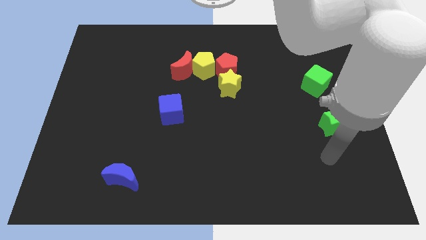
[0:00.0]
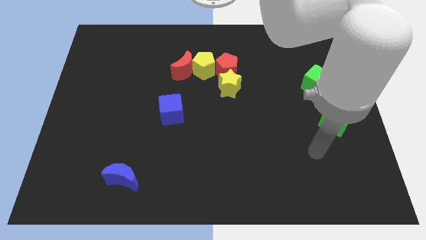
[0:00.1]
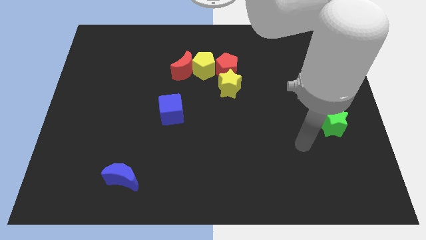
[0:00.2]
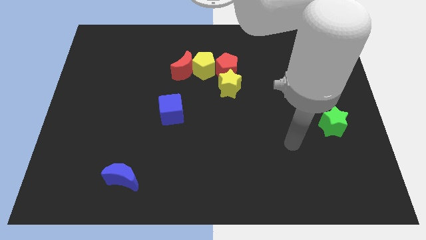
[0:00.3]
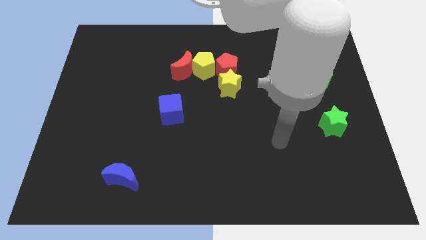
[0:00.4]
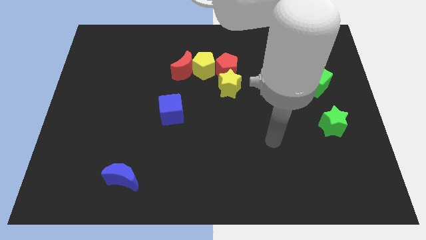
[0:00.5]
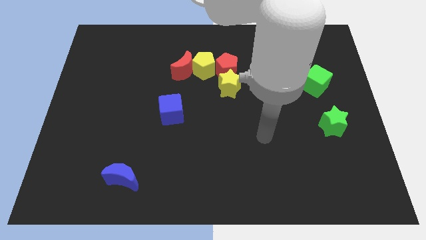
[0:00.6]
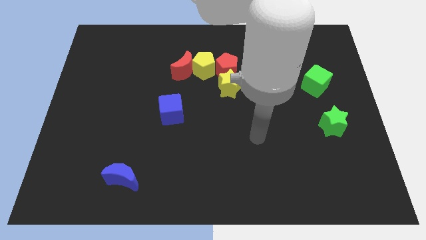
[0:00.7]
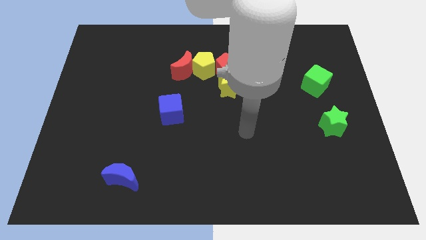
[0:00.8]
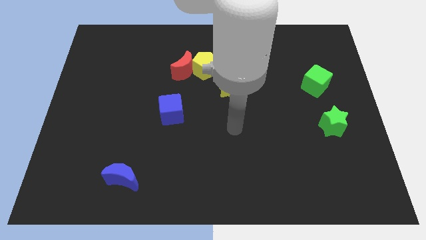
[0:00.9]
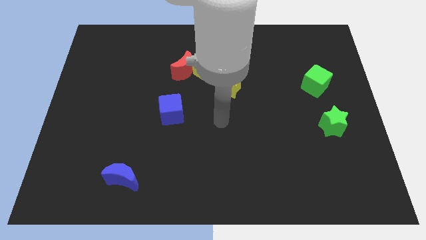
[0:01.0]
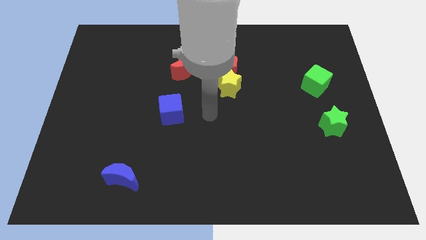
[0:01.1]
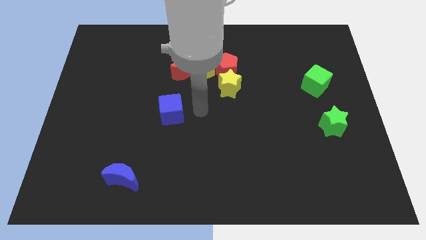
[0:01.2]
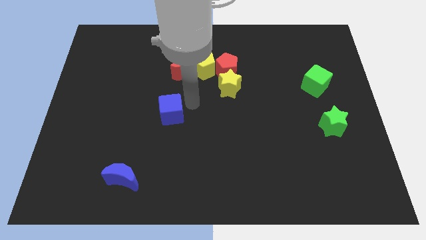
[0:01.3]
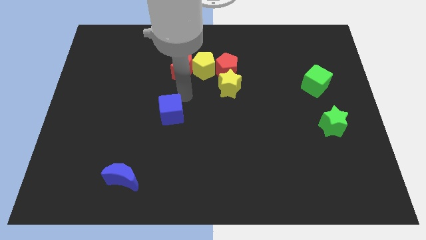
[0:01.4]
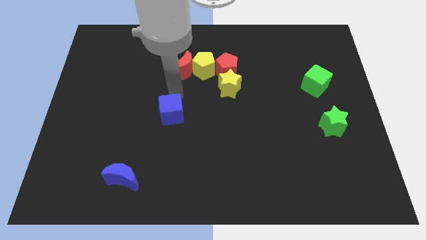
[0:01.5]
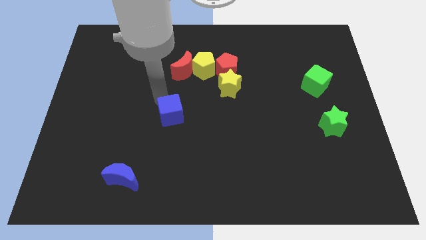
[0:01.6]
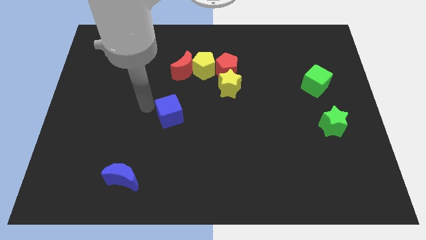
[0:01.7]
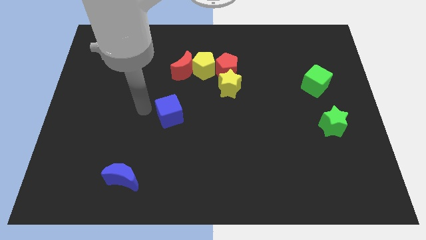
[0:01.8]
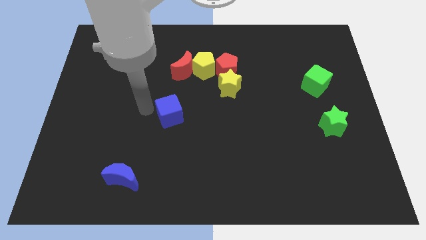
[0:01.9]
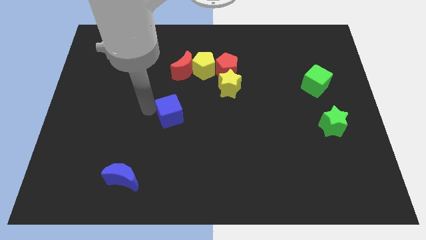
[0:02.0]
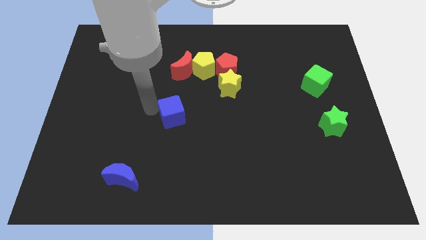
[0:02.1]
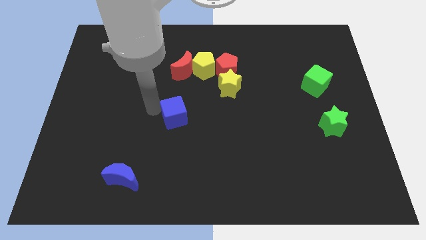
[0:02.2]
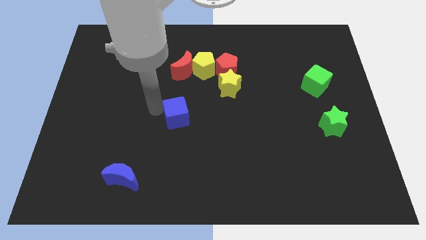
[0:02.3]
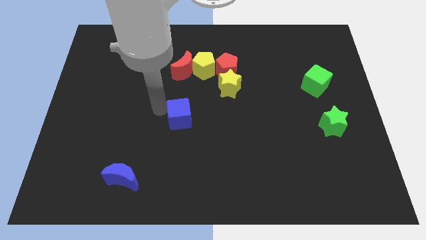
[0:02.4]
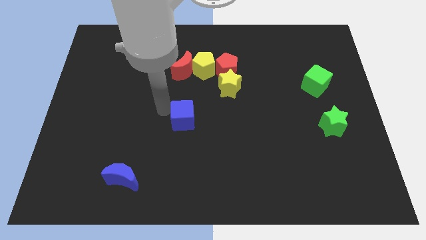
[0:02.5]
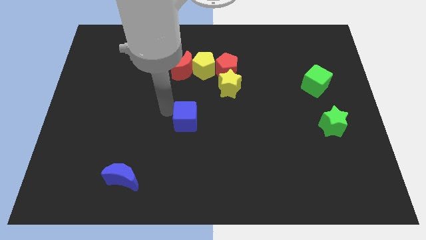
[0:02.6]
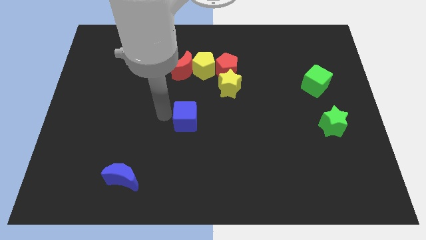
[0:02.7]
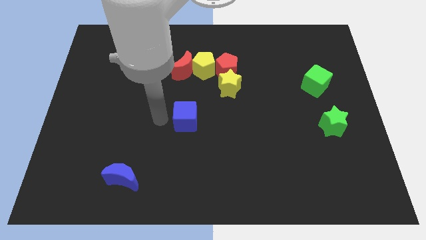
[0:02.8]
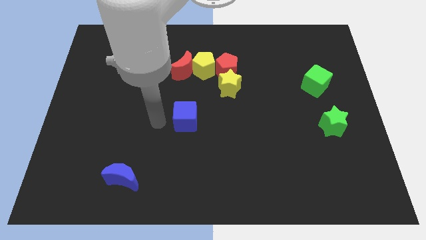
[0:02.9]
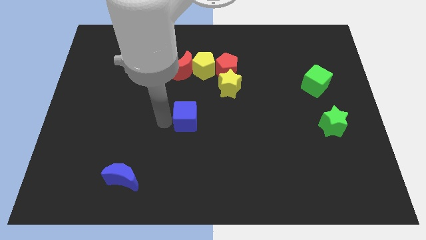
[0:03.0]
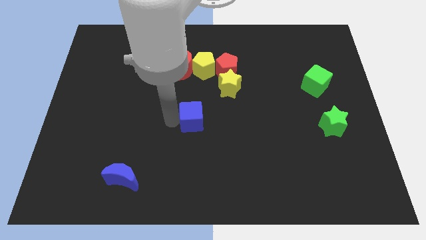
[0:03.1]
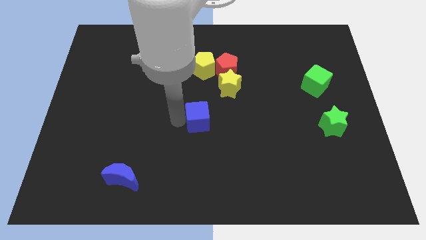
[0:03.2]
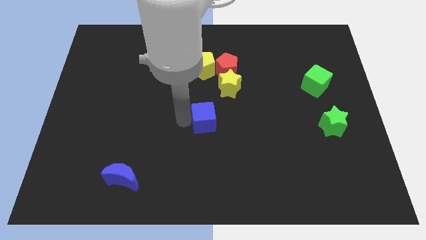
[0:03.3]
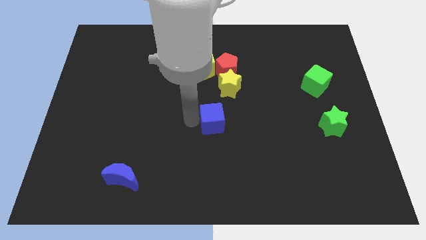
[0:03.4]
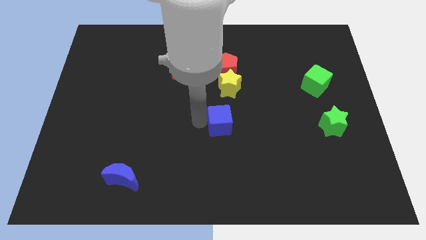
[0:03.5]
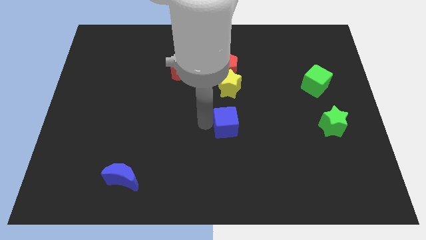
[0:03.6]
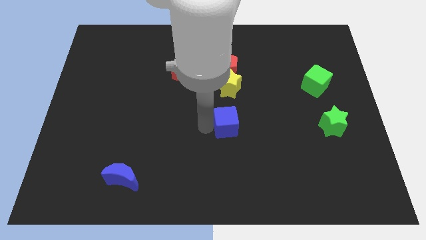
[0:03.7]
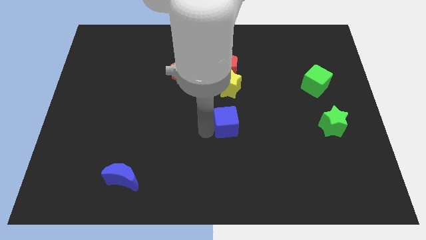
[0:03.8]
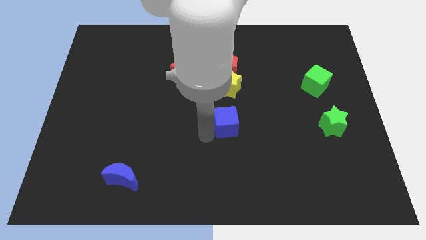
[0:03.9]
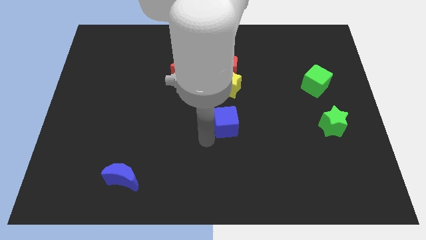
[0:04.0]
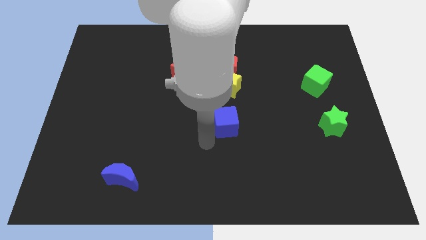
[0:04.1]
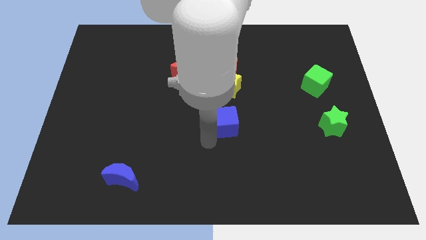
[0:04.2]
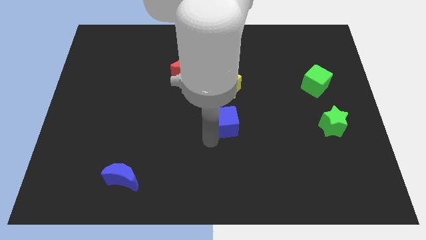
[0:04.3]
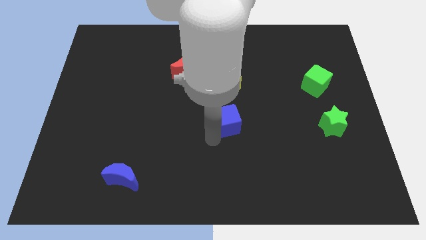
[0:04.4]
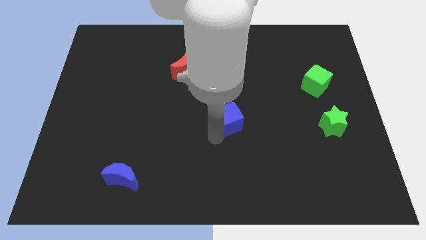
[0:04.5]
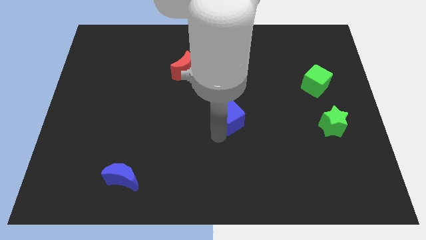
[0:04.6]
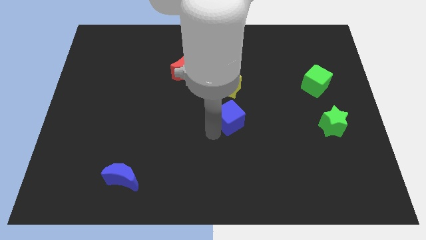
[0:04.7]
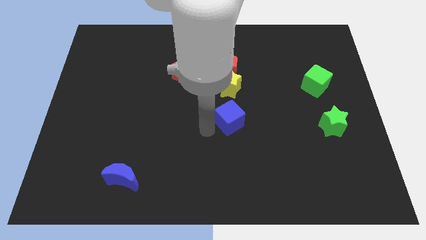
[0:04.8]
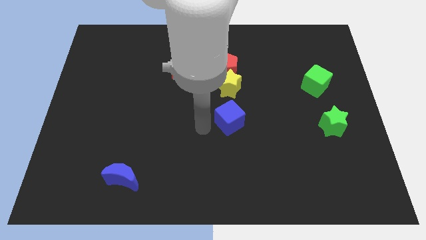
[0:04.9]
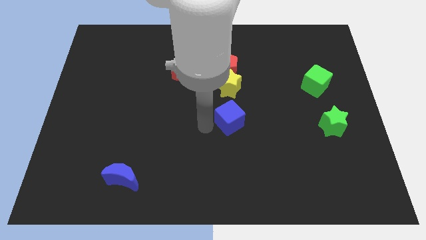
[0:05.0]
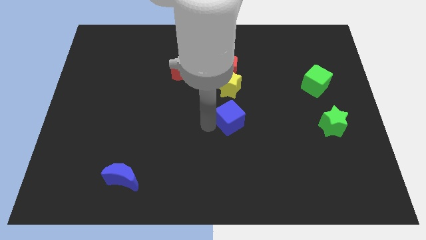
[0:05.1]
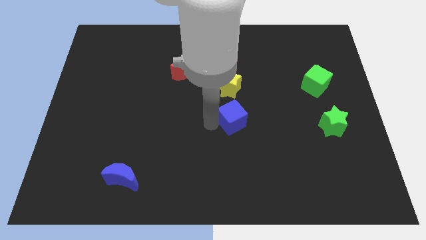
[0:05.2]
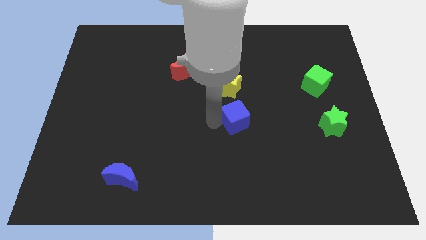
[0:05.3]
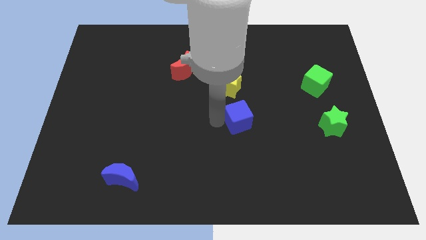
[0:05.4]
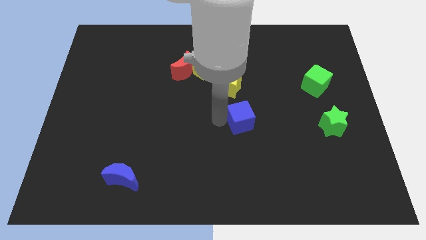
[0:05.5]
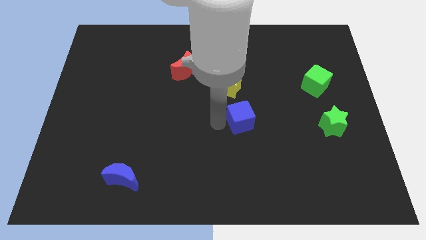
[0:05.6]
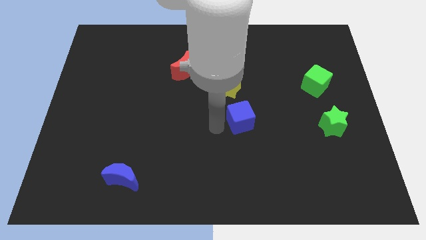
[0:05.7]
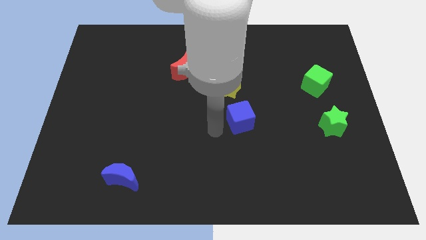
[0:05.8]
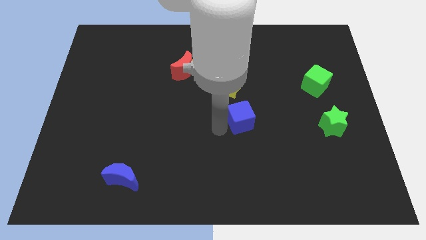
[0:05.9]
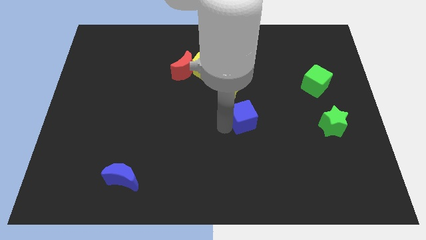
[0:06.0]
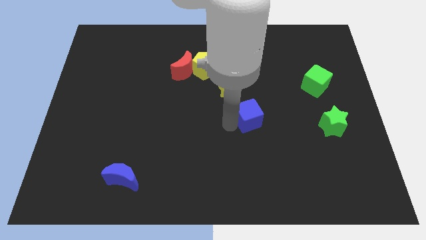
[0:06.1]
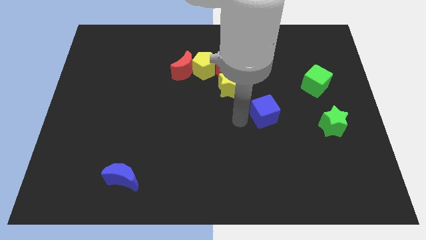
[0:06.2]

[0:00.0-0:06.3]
move the blue cube to the right

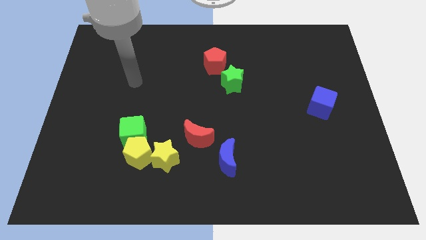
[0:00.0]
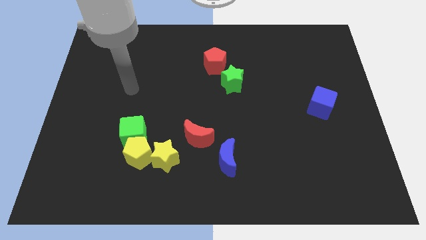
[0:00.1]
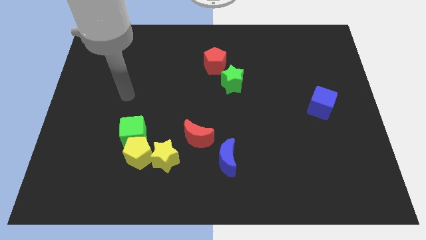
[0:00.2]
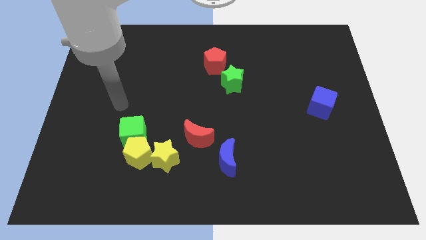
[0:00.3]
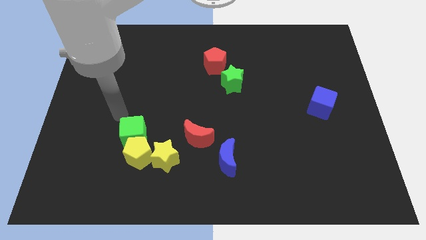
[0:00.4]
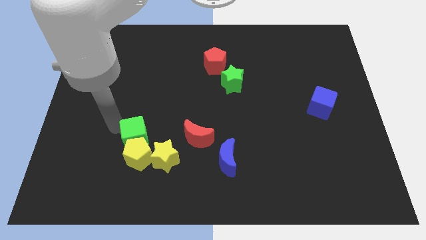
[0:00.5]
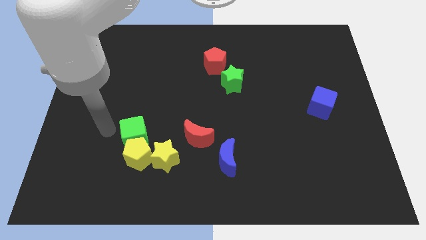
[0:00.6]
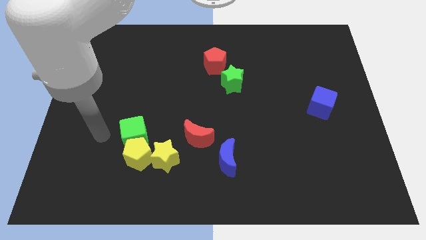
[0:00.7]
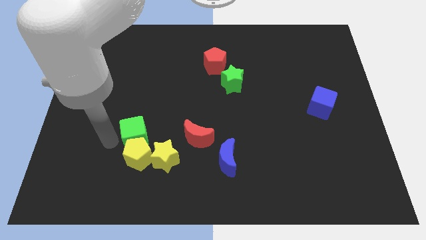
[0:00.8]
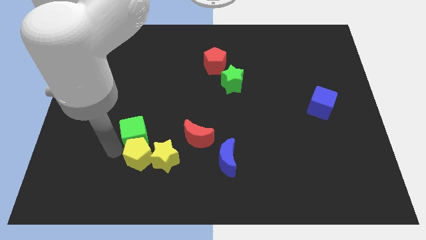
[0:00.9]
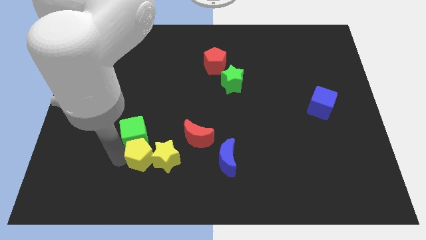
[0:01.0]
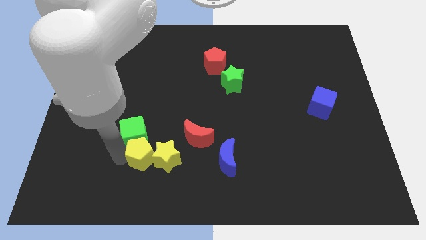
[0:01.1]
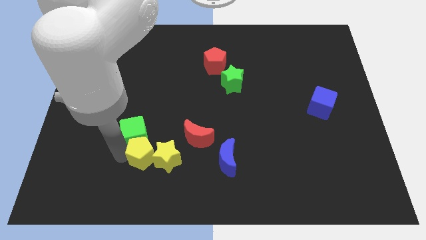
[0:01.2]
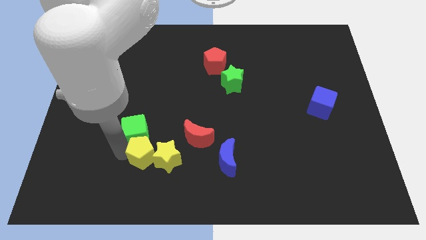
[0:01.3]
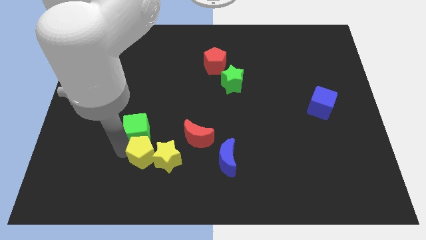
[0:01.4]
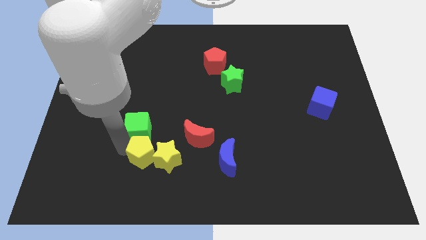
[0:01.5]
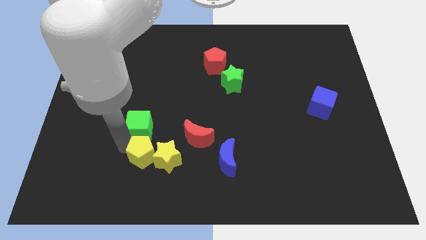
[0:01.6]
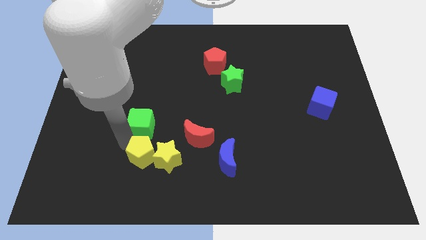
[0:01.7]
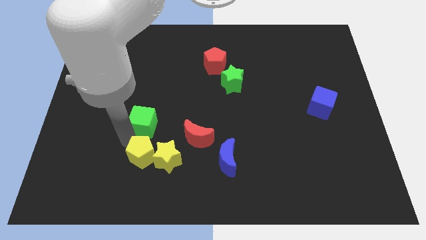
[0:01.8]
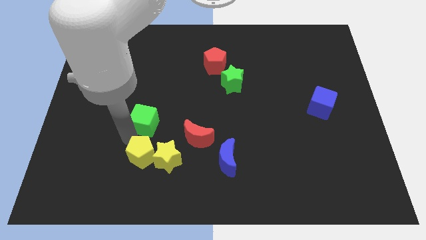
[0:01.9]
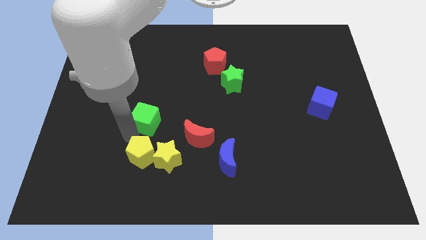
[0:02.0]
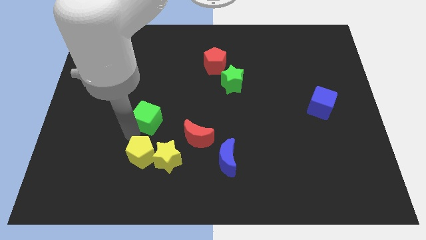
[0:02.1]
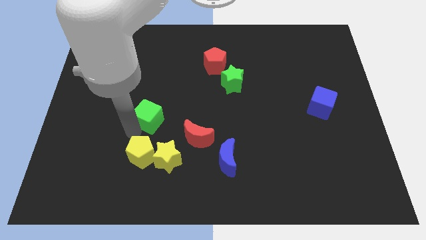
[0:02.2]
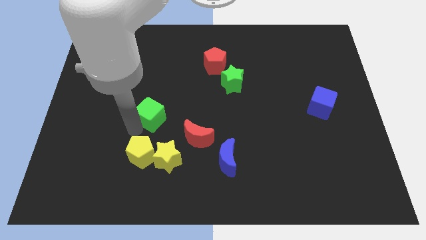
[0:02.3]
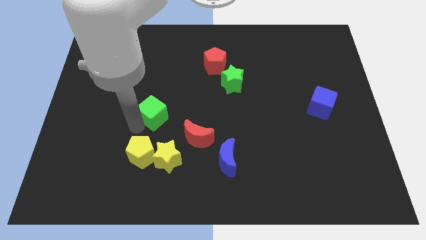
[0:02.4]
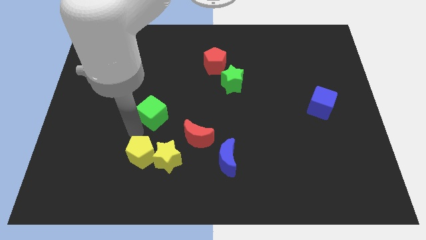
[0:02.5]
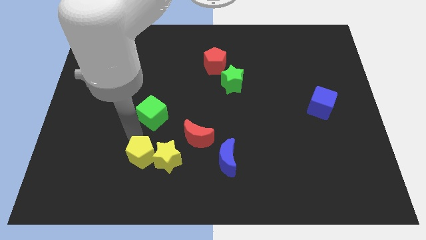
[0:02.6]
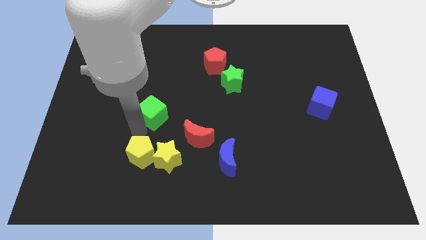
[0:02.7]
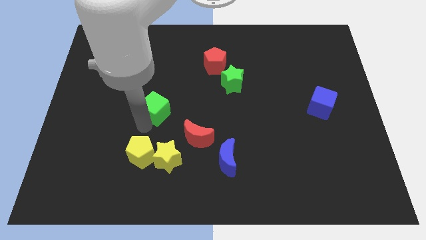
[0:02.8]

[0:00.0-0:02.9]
slightly move the green cube diagonally upwards and to the right
